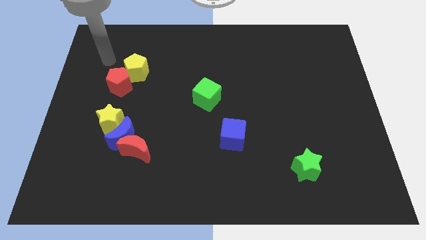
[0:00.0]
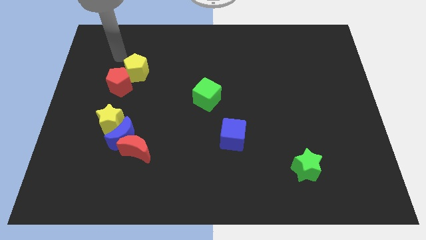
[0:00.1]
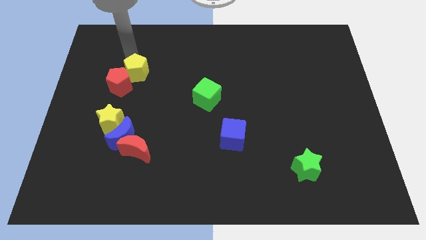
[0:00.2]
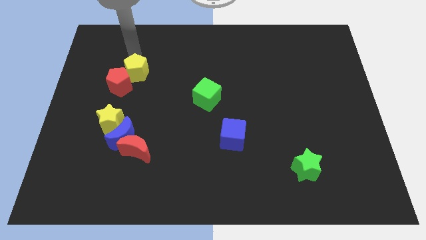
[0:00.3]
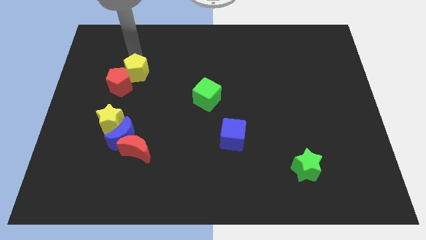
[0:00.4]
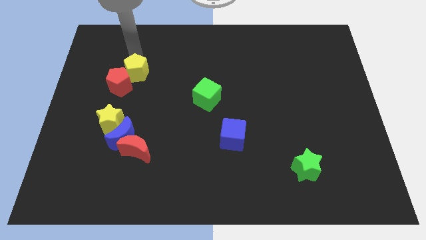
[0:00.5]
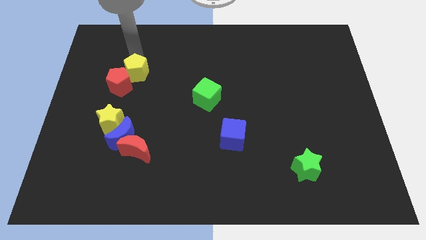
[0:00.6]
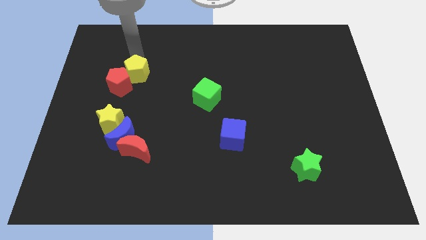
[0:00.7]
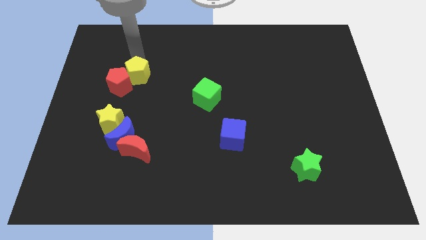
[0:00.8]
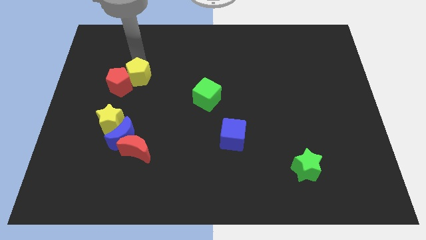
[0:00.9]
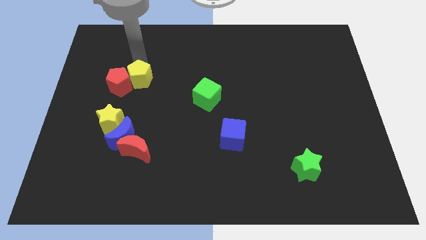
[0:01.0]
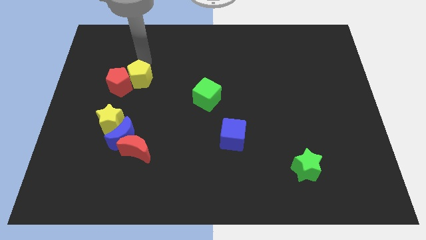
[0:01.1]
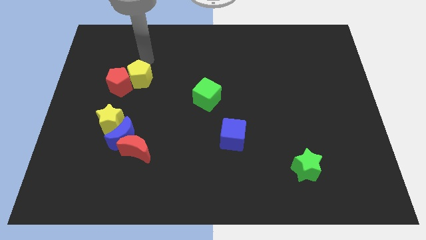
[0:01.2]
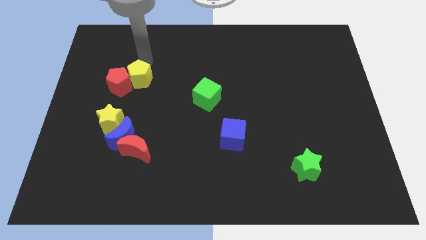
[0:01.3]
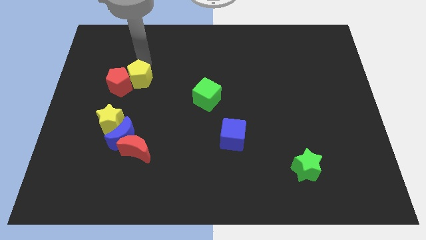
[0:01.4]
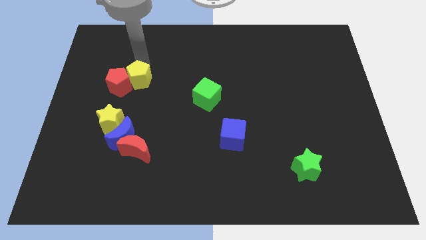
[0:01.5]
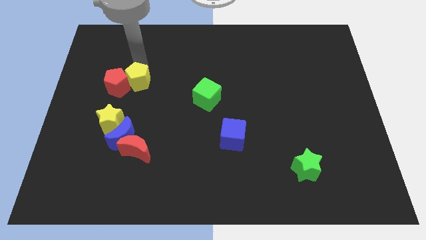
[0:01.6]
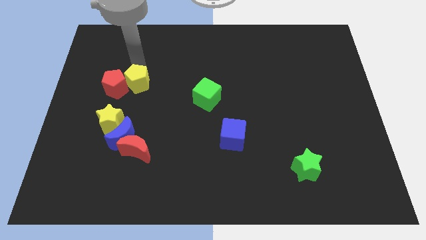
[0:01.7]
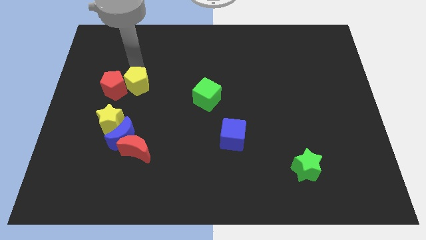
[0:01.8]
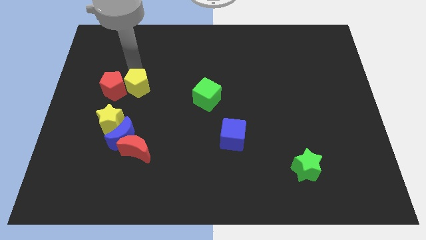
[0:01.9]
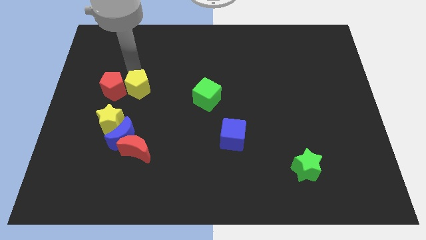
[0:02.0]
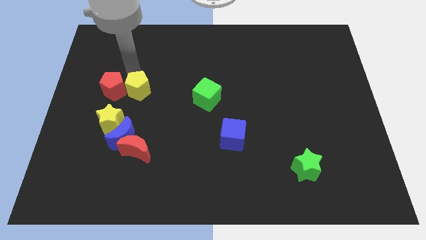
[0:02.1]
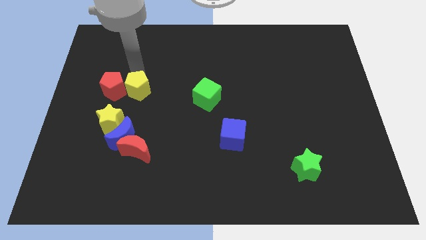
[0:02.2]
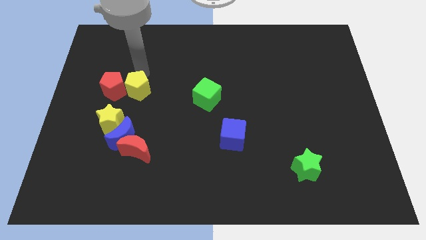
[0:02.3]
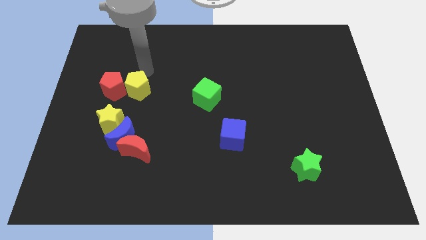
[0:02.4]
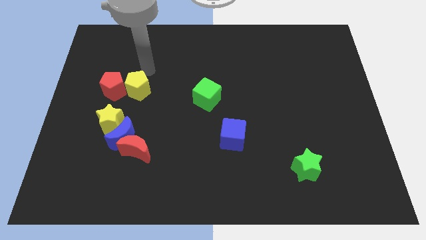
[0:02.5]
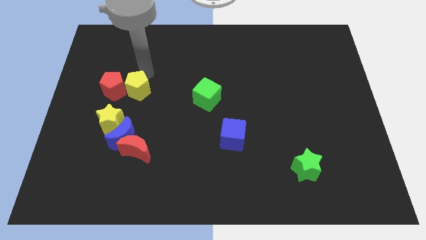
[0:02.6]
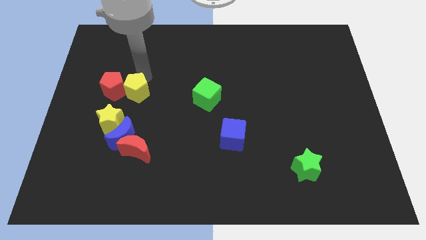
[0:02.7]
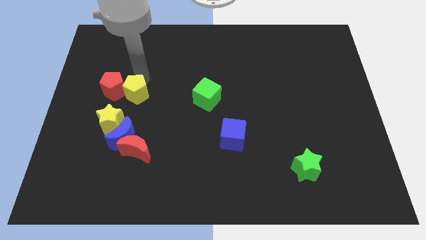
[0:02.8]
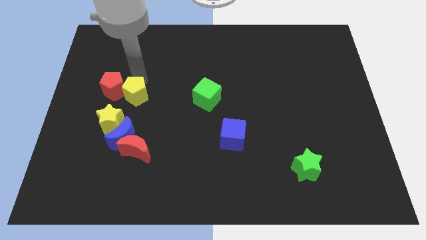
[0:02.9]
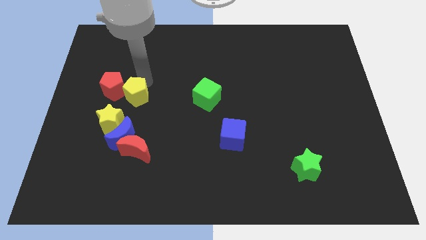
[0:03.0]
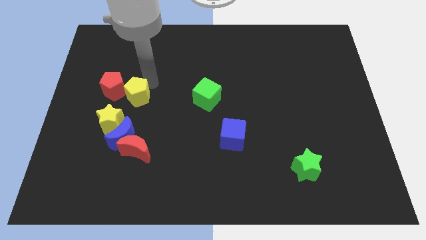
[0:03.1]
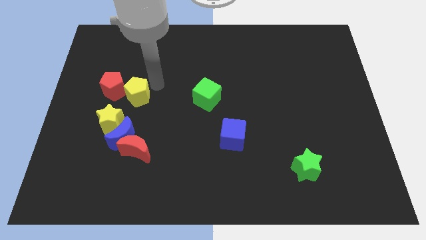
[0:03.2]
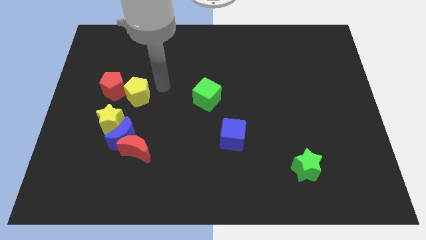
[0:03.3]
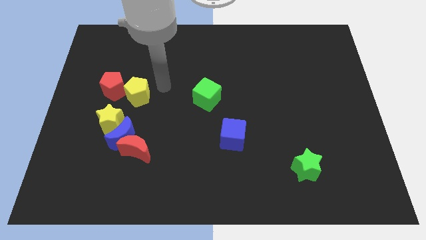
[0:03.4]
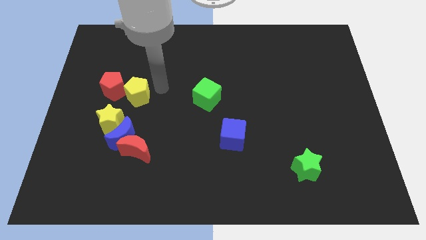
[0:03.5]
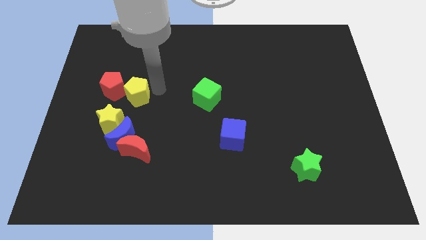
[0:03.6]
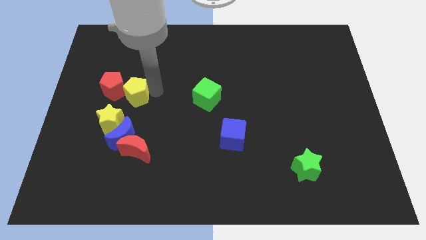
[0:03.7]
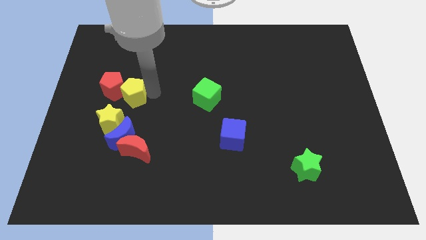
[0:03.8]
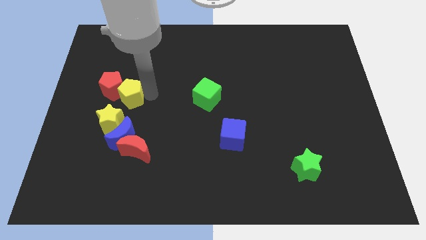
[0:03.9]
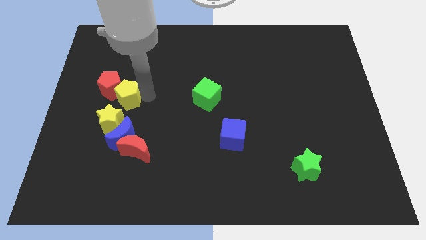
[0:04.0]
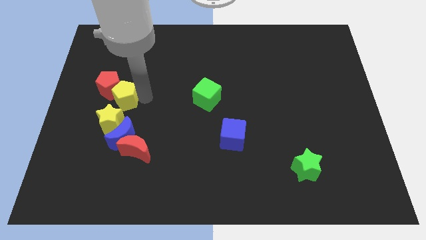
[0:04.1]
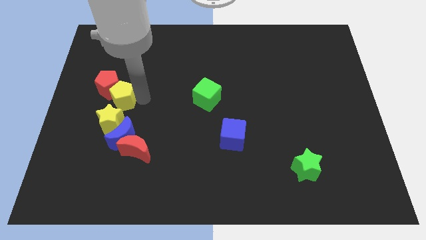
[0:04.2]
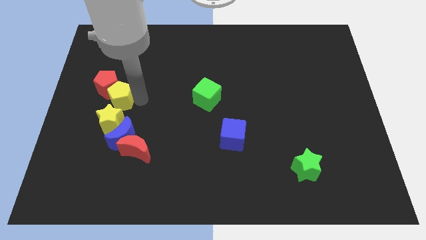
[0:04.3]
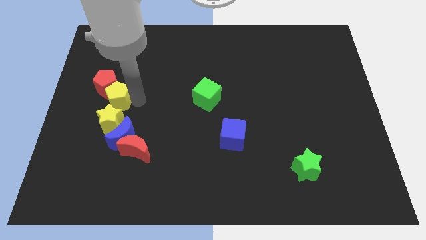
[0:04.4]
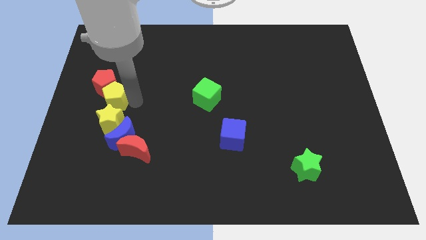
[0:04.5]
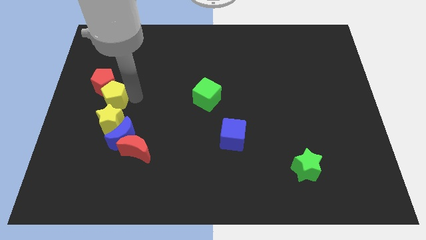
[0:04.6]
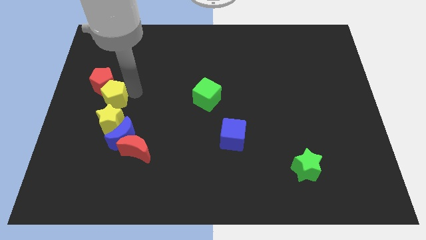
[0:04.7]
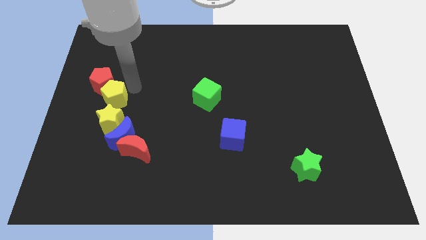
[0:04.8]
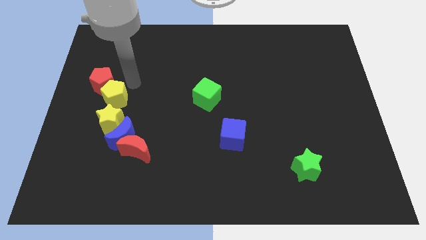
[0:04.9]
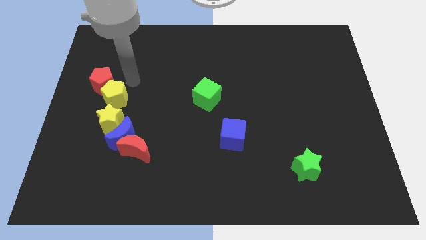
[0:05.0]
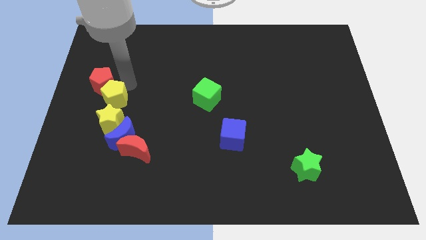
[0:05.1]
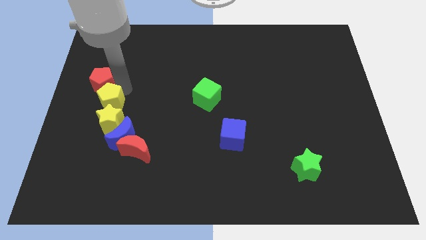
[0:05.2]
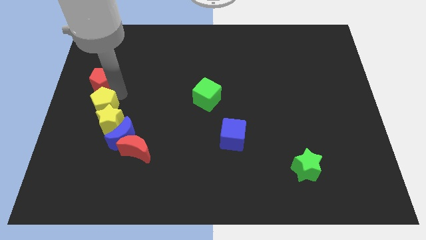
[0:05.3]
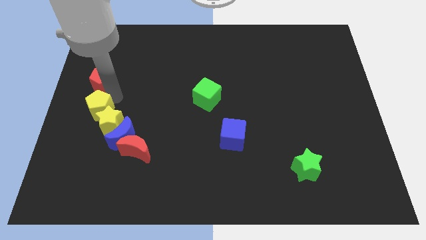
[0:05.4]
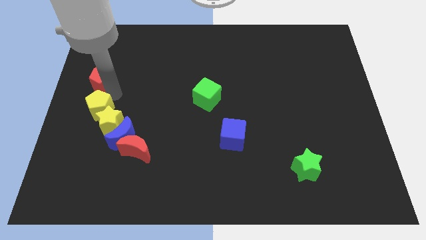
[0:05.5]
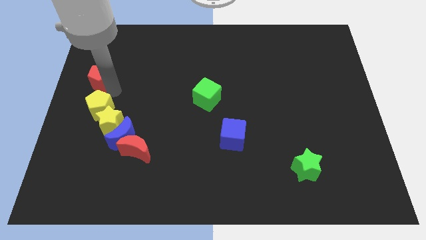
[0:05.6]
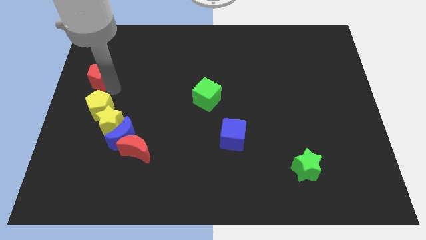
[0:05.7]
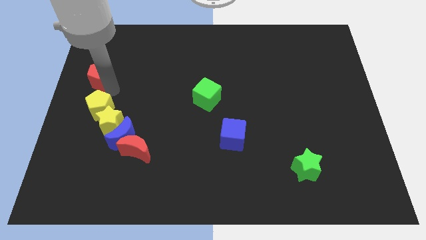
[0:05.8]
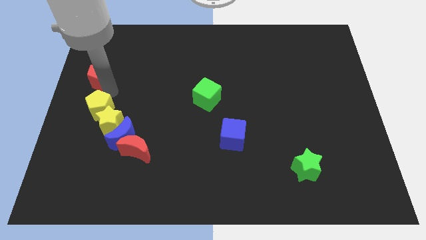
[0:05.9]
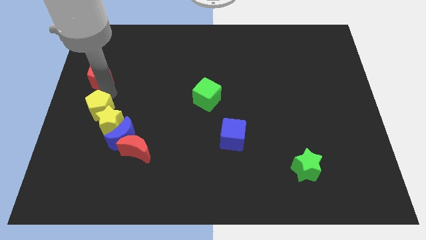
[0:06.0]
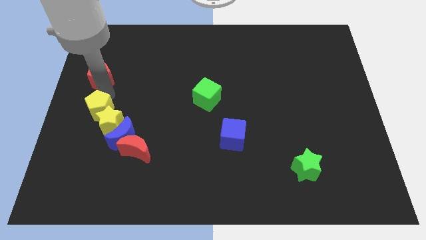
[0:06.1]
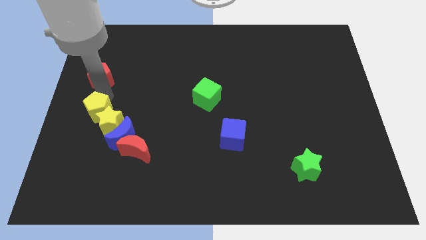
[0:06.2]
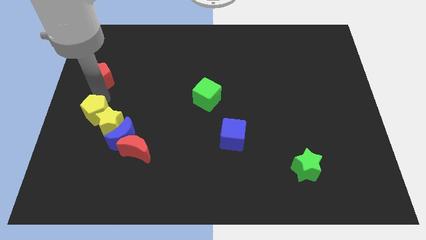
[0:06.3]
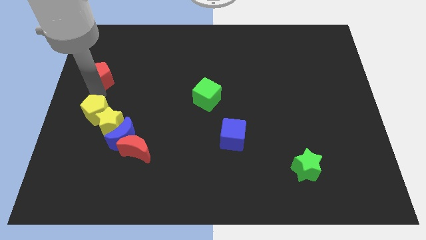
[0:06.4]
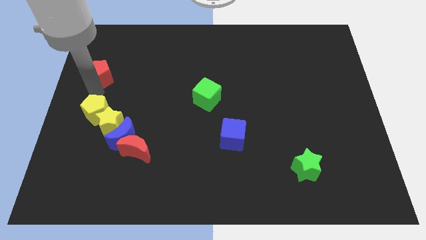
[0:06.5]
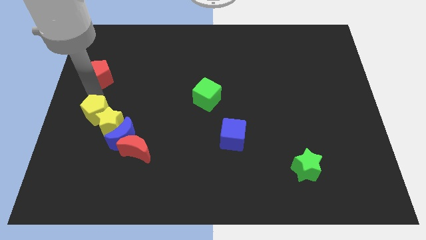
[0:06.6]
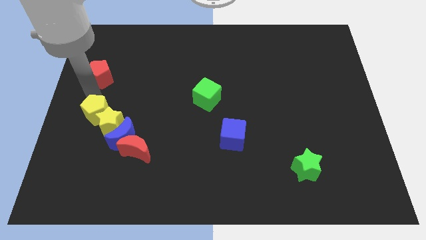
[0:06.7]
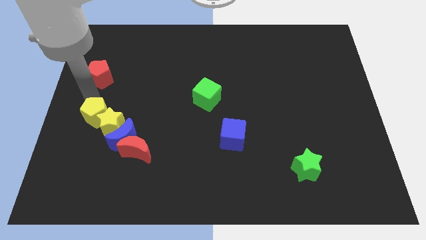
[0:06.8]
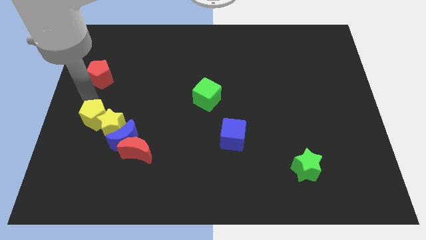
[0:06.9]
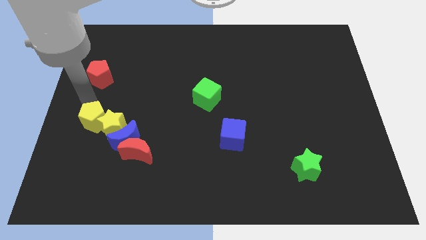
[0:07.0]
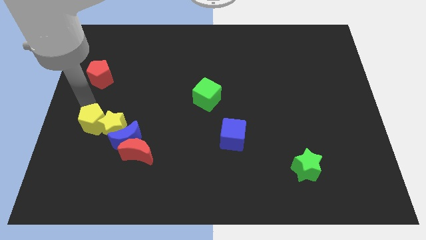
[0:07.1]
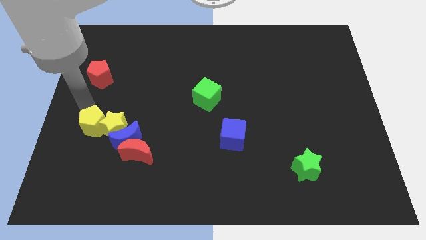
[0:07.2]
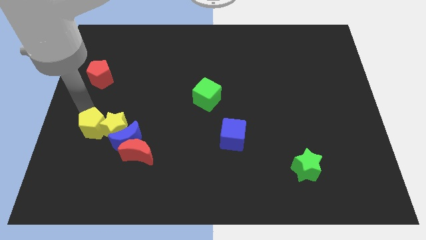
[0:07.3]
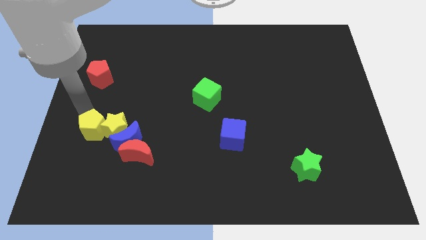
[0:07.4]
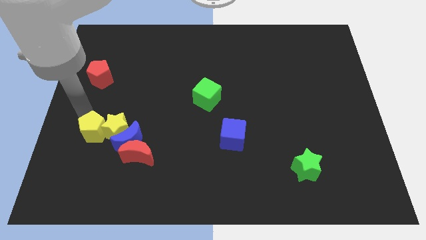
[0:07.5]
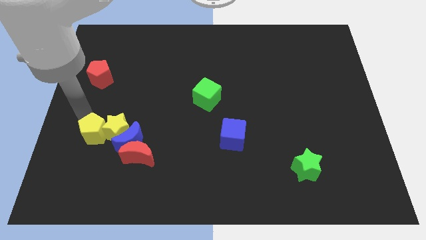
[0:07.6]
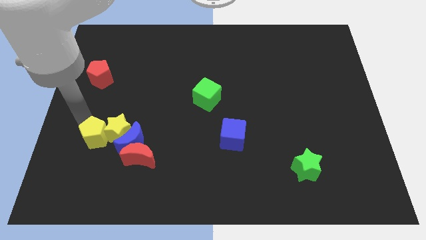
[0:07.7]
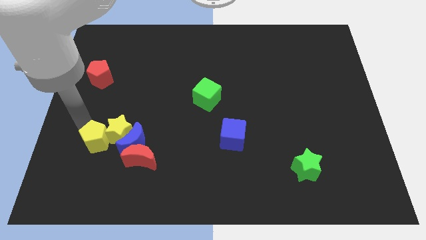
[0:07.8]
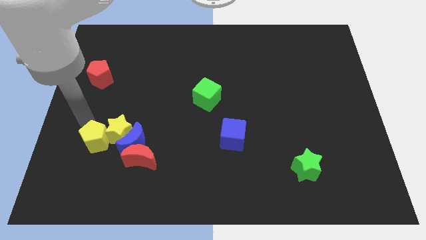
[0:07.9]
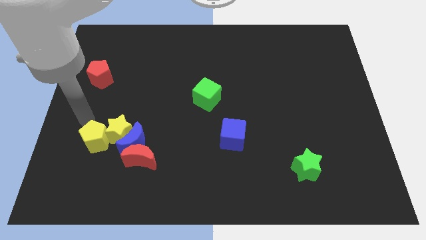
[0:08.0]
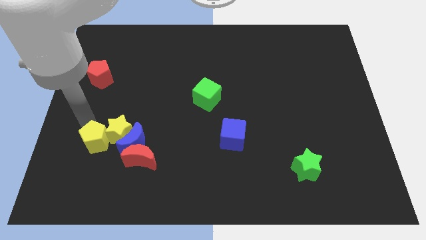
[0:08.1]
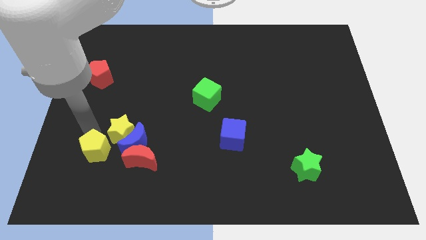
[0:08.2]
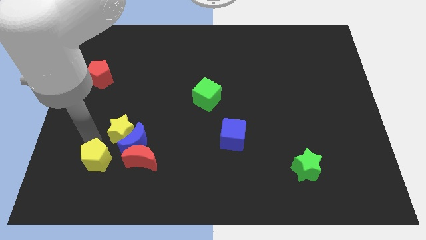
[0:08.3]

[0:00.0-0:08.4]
push the yellow pentagon to the bottom of the yellow star
